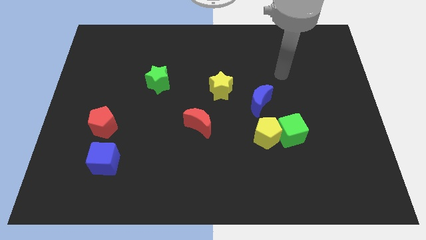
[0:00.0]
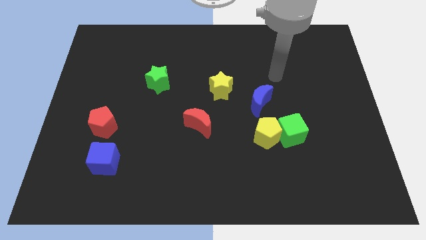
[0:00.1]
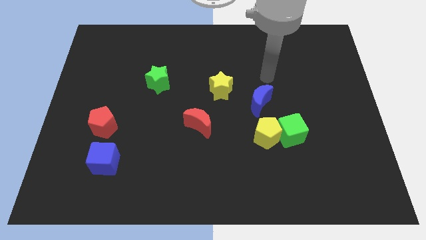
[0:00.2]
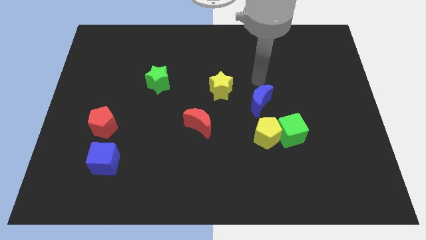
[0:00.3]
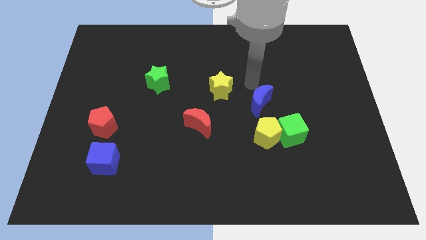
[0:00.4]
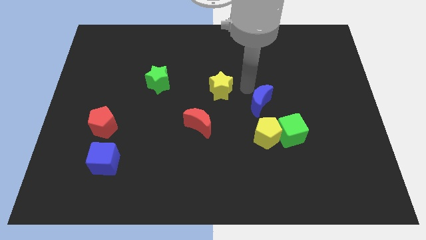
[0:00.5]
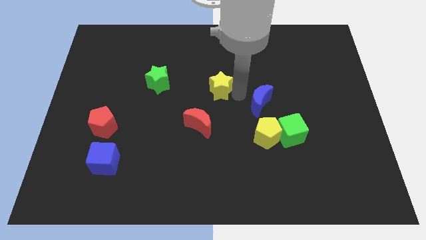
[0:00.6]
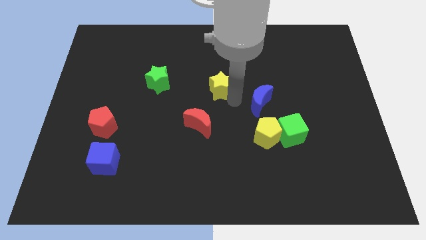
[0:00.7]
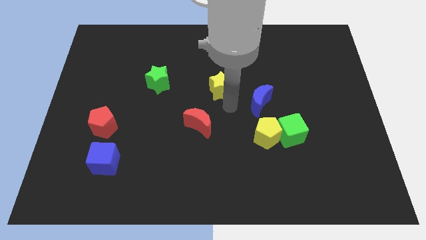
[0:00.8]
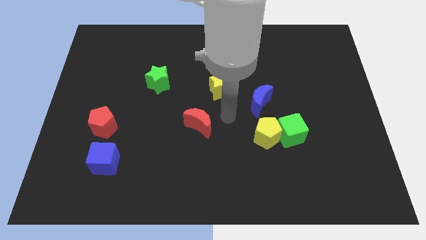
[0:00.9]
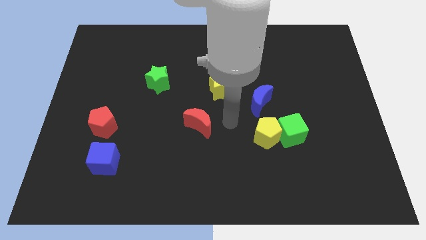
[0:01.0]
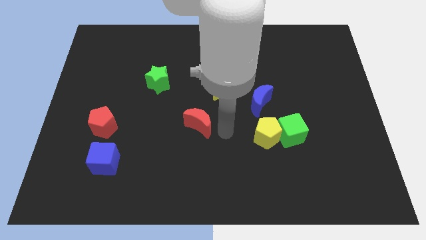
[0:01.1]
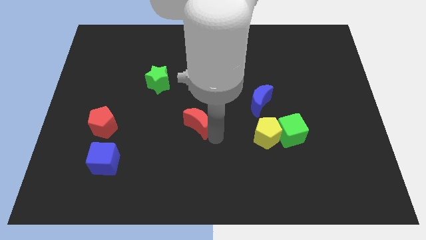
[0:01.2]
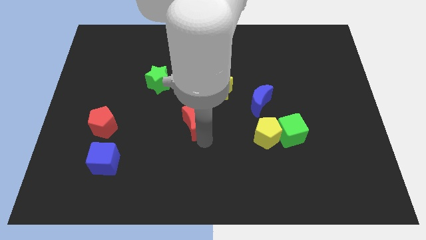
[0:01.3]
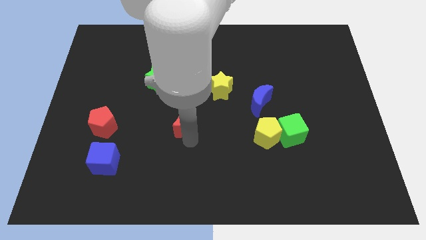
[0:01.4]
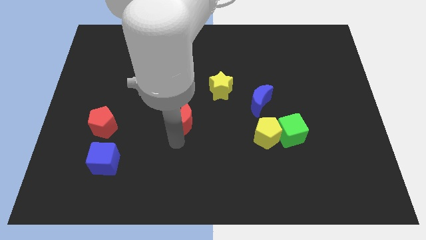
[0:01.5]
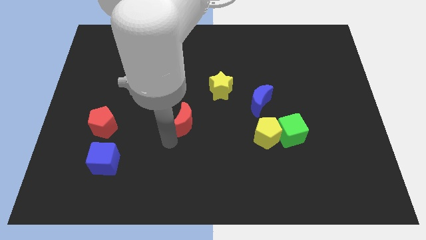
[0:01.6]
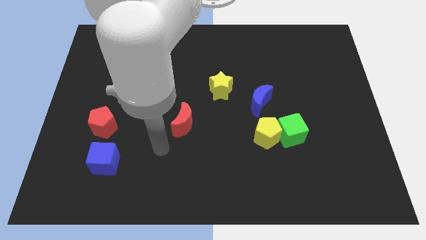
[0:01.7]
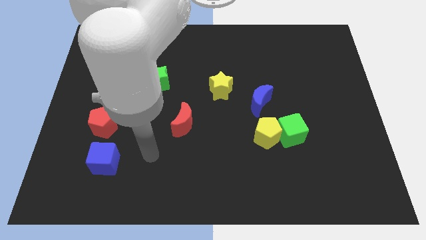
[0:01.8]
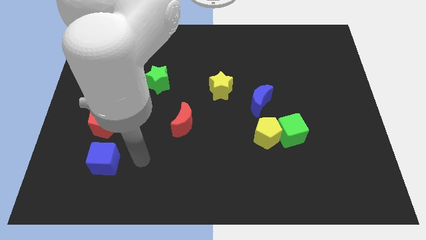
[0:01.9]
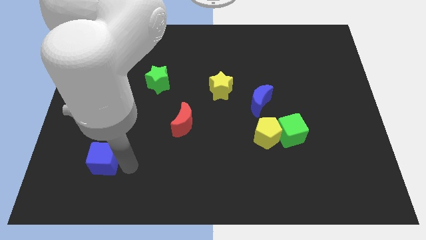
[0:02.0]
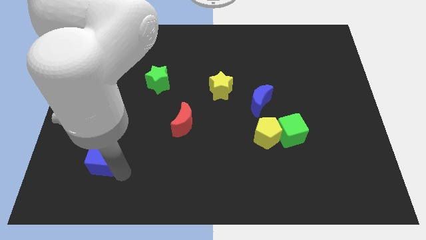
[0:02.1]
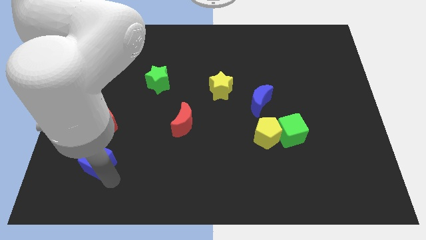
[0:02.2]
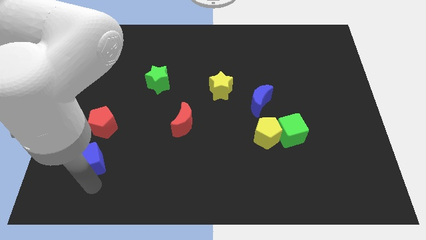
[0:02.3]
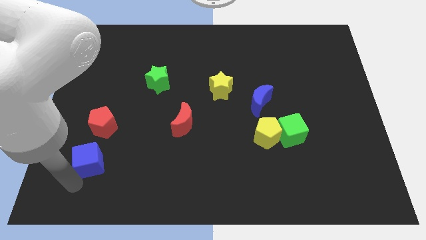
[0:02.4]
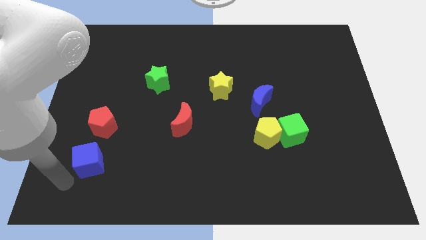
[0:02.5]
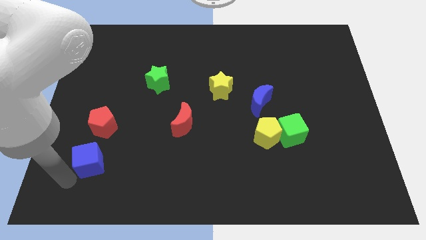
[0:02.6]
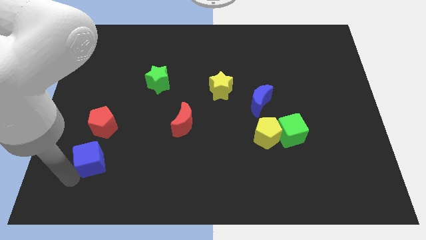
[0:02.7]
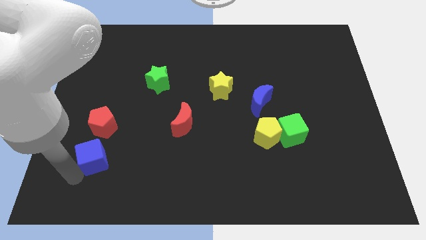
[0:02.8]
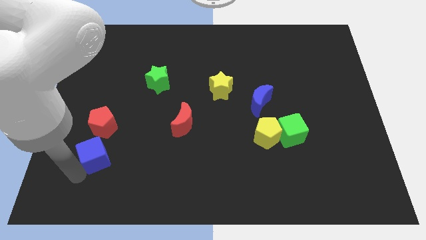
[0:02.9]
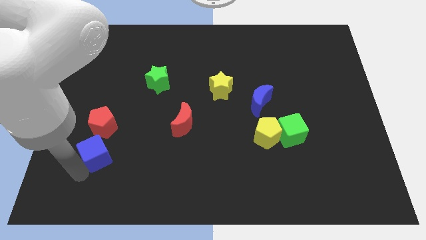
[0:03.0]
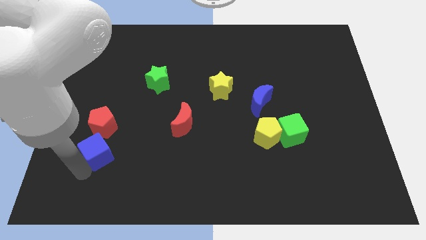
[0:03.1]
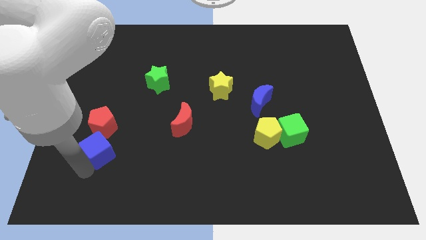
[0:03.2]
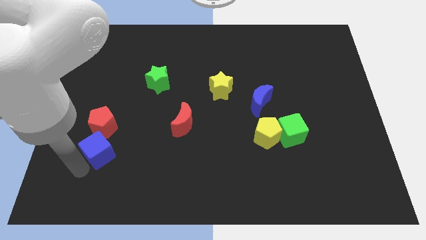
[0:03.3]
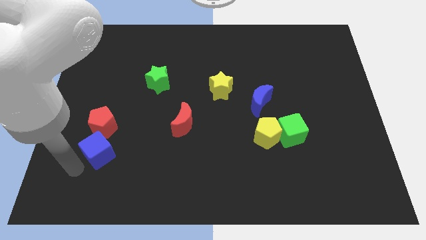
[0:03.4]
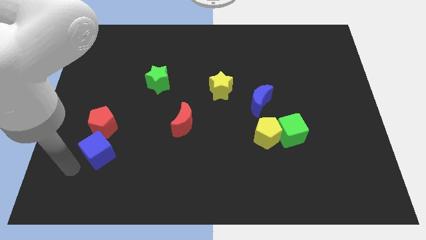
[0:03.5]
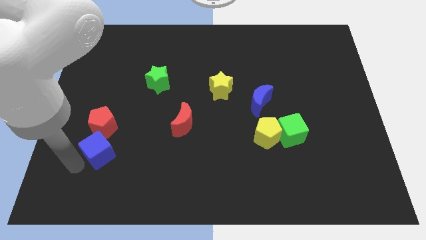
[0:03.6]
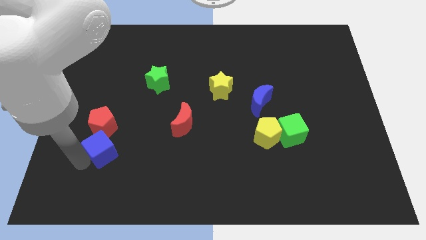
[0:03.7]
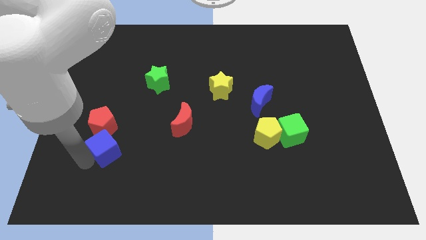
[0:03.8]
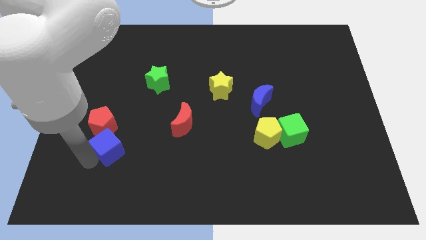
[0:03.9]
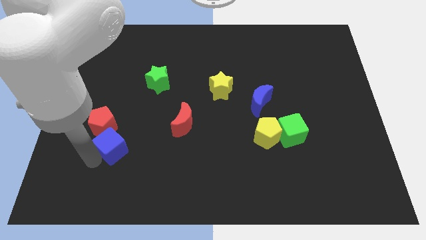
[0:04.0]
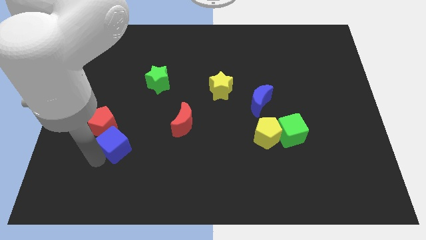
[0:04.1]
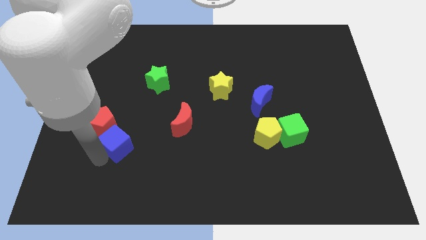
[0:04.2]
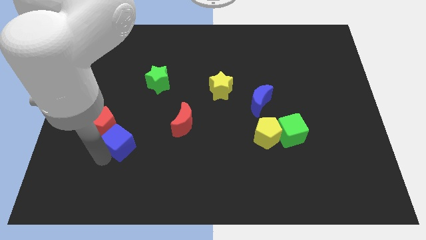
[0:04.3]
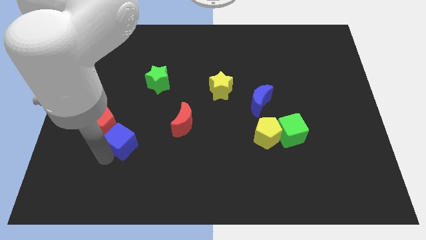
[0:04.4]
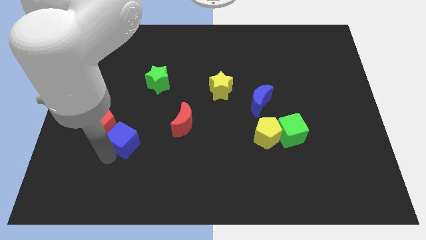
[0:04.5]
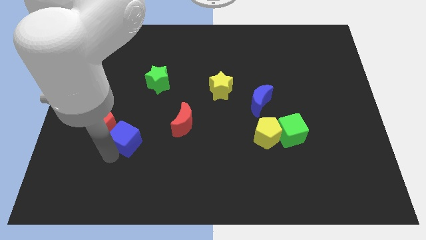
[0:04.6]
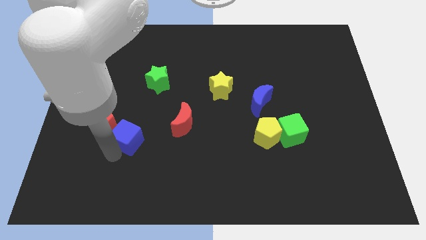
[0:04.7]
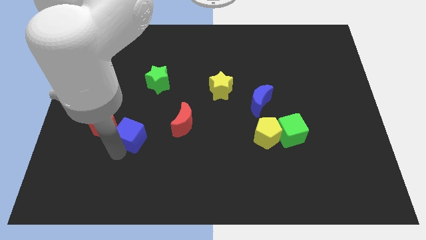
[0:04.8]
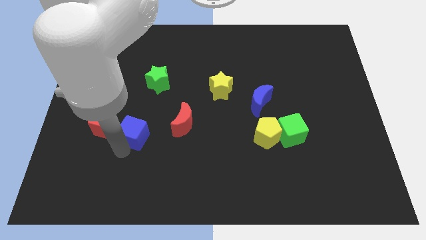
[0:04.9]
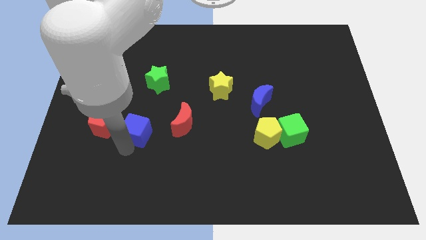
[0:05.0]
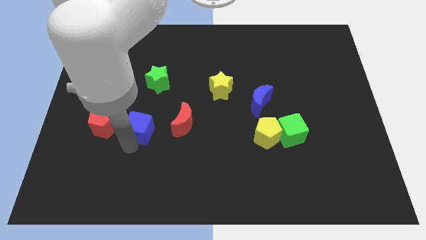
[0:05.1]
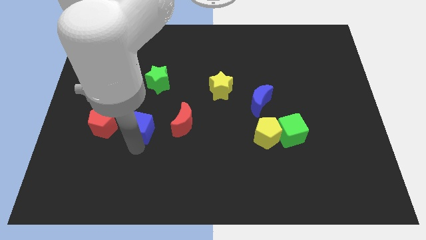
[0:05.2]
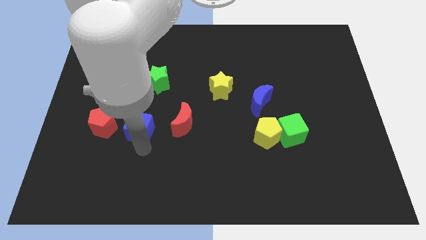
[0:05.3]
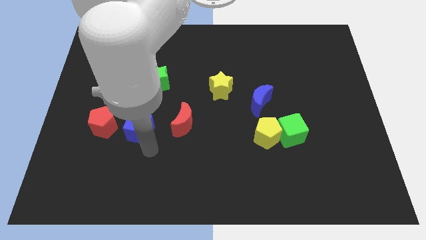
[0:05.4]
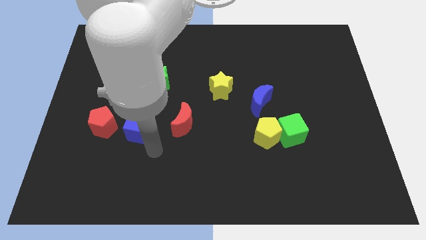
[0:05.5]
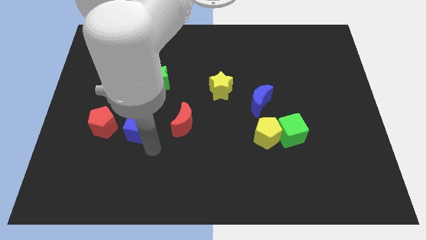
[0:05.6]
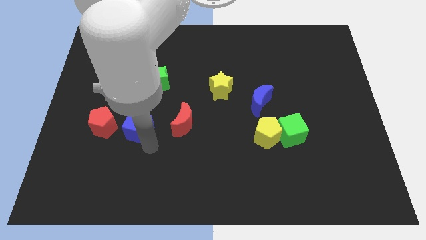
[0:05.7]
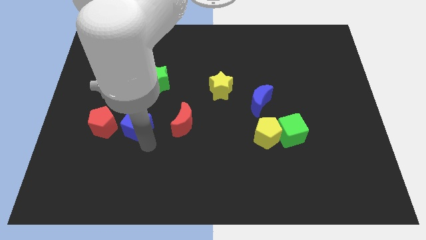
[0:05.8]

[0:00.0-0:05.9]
slide the blue cube a little up

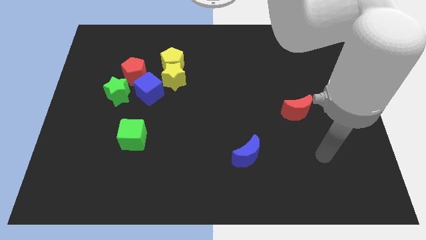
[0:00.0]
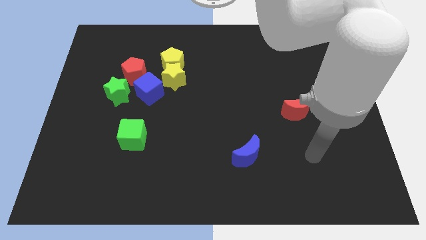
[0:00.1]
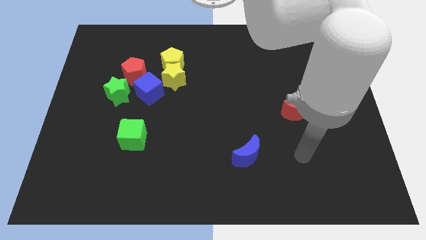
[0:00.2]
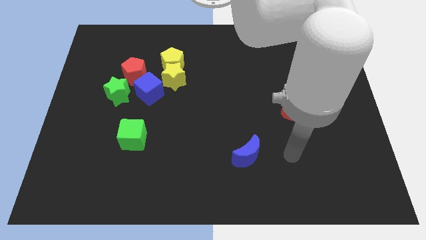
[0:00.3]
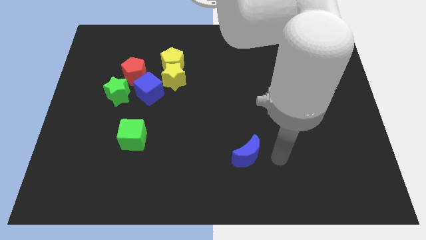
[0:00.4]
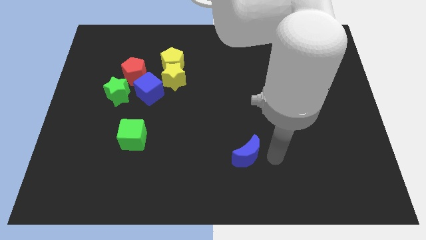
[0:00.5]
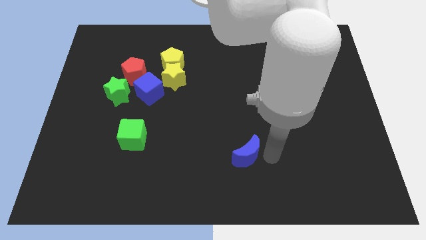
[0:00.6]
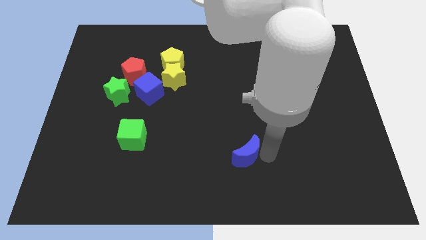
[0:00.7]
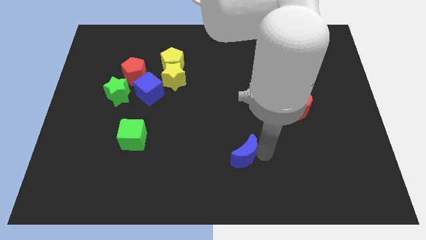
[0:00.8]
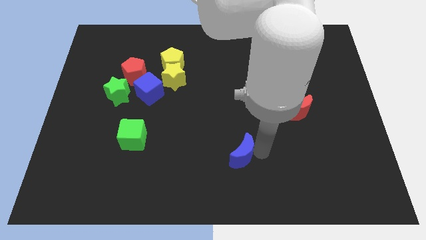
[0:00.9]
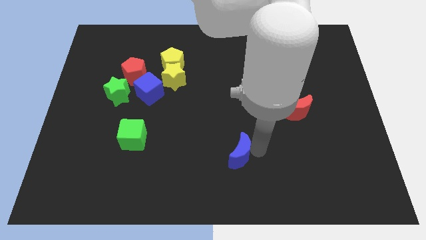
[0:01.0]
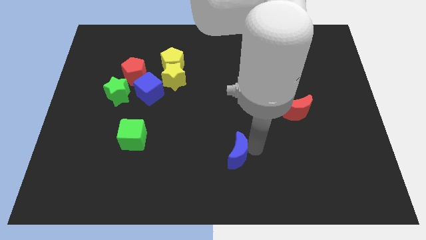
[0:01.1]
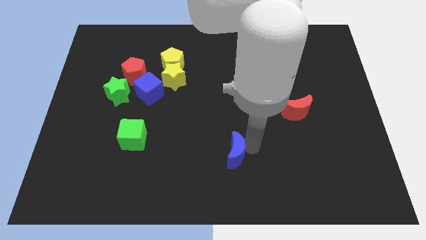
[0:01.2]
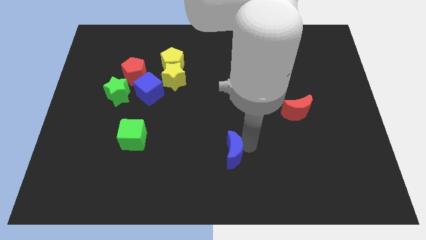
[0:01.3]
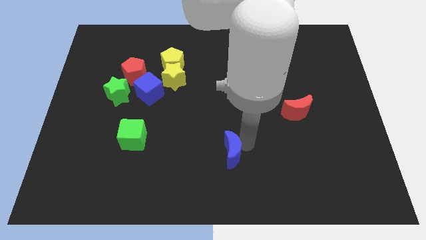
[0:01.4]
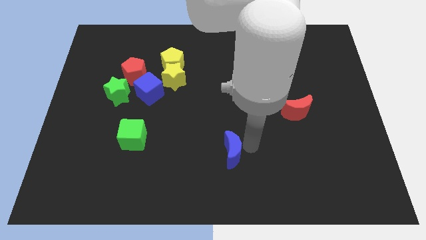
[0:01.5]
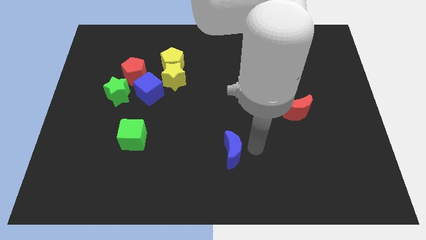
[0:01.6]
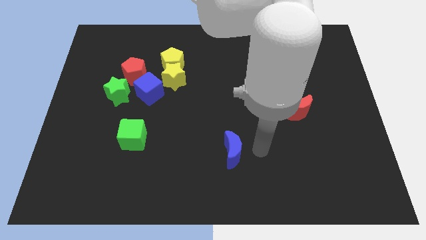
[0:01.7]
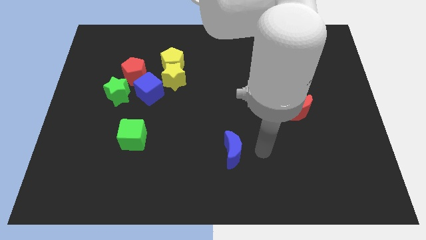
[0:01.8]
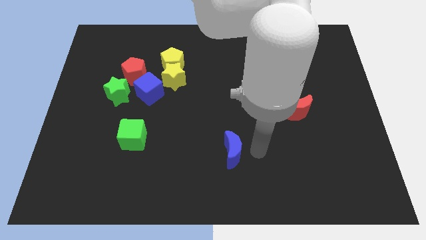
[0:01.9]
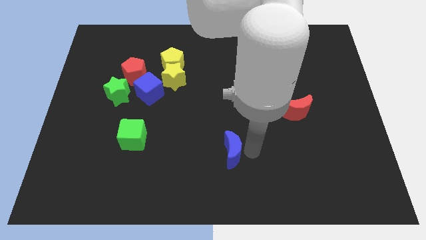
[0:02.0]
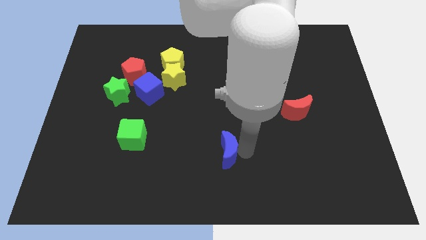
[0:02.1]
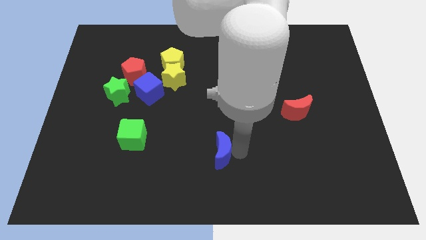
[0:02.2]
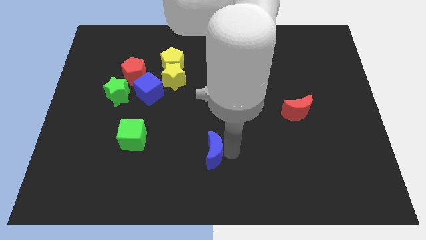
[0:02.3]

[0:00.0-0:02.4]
slightly move the blue moon left
